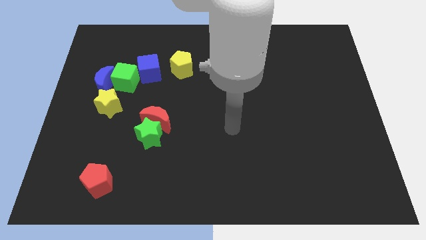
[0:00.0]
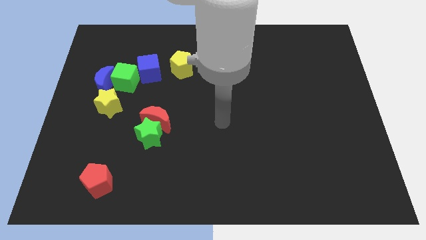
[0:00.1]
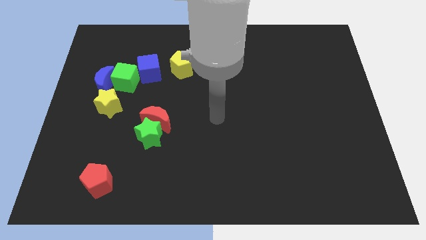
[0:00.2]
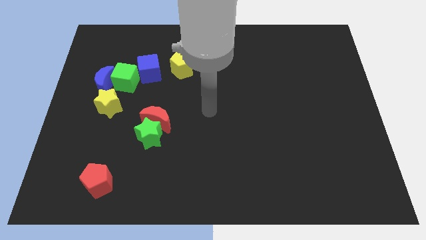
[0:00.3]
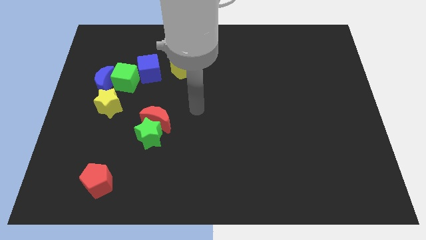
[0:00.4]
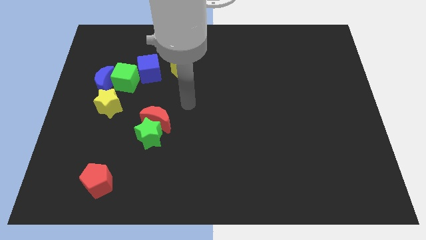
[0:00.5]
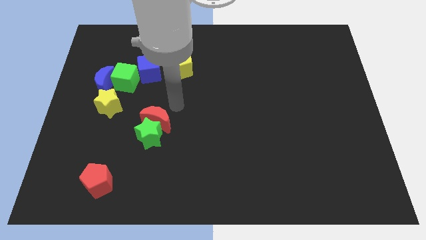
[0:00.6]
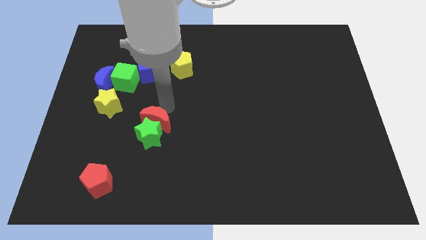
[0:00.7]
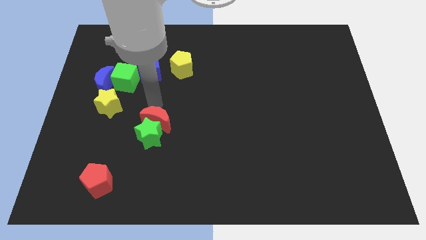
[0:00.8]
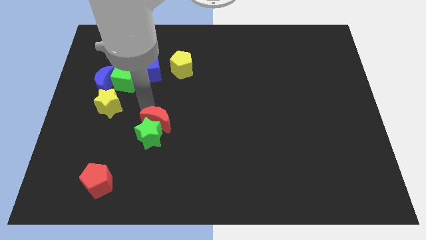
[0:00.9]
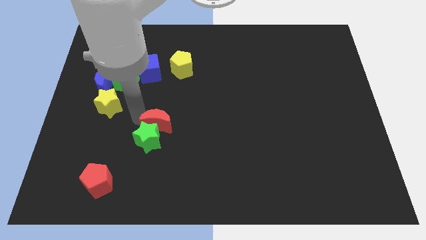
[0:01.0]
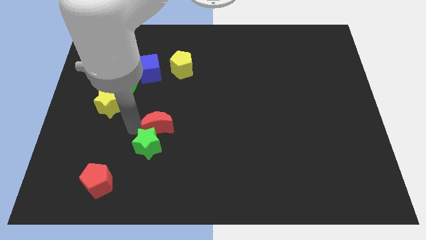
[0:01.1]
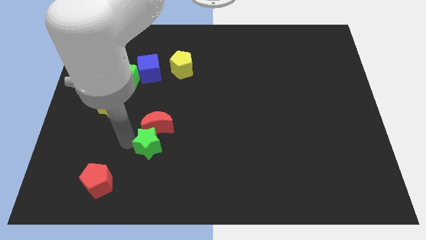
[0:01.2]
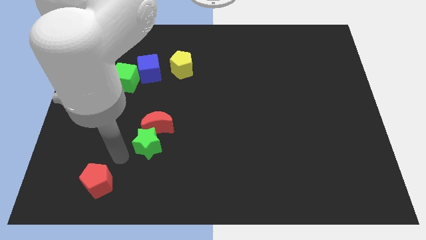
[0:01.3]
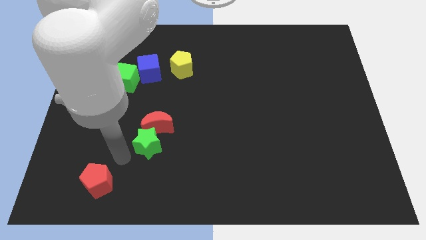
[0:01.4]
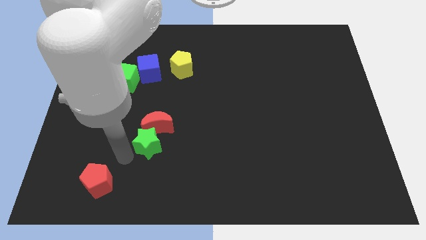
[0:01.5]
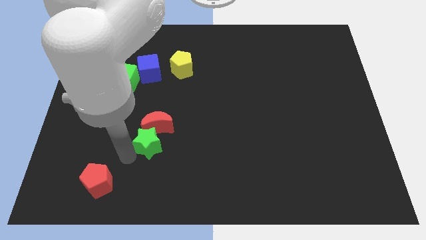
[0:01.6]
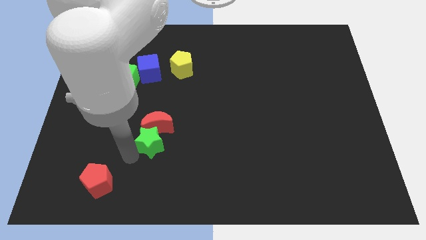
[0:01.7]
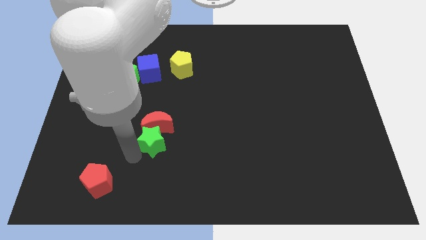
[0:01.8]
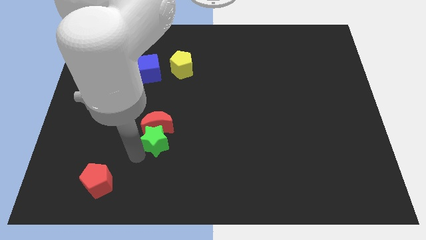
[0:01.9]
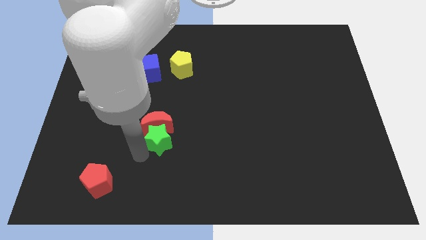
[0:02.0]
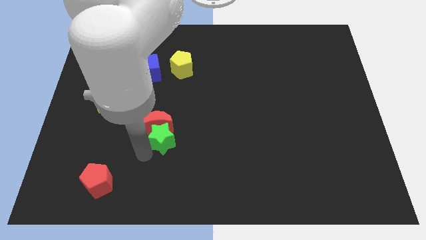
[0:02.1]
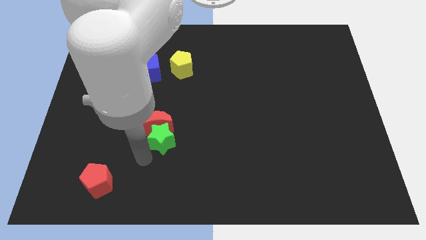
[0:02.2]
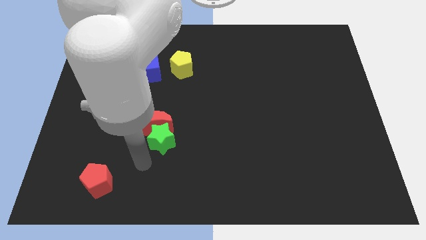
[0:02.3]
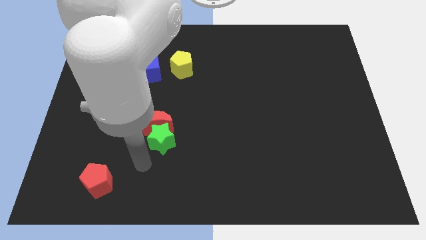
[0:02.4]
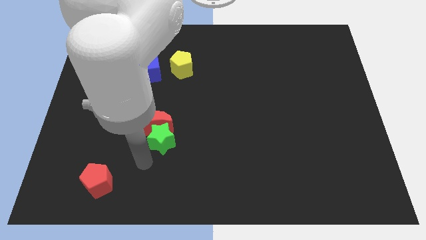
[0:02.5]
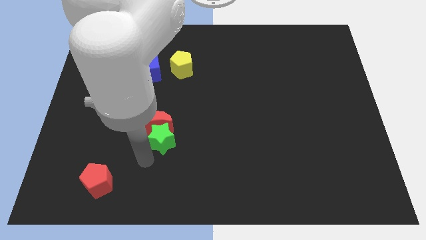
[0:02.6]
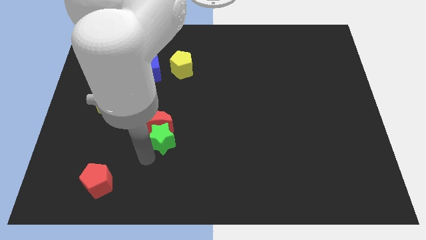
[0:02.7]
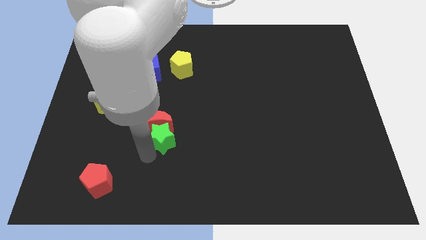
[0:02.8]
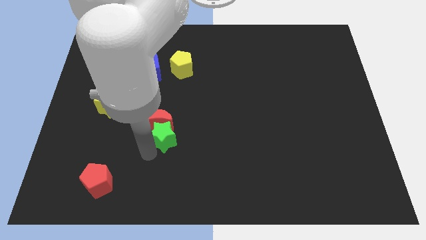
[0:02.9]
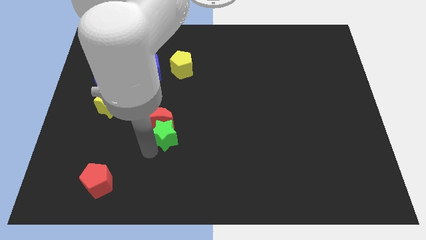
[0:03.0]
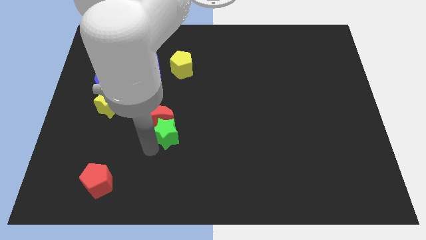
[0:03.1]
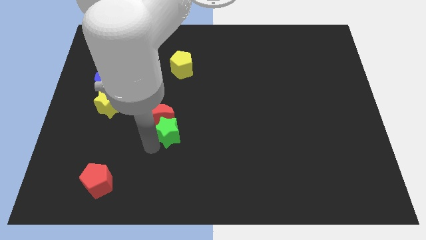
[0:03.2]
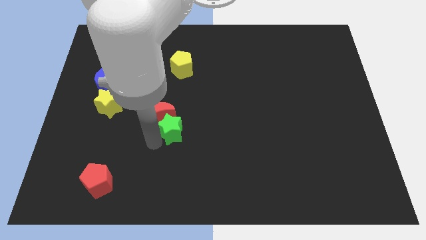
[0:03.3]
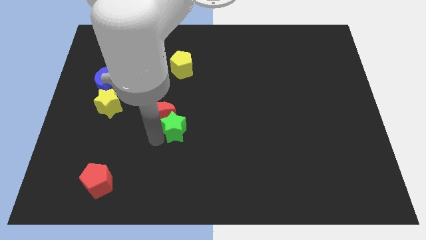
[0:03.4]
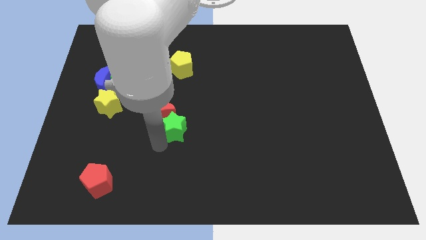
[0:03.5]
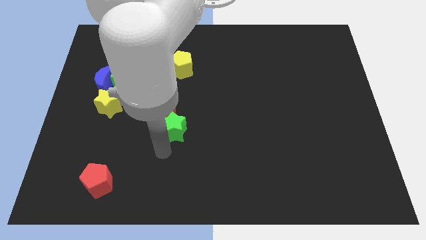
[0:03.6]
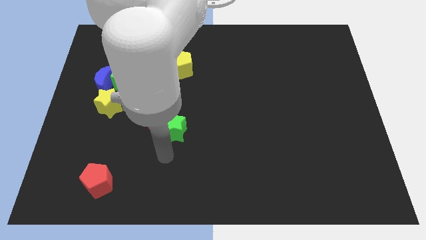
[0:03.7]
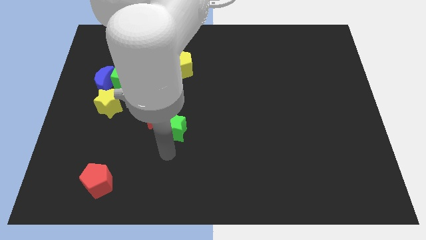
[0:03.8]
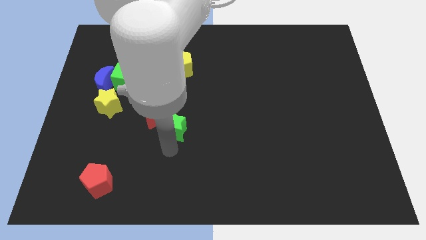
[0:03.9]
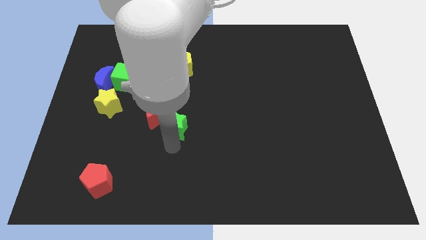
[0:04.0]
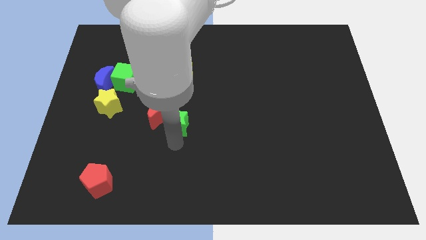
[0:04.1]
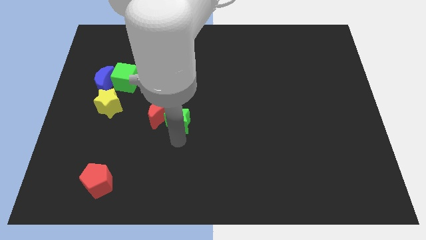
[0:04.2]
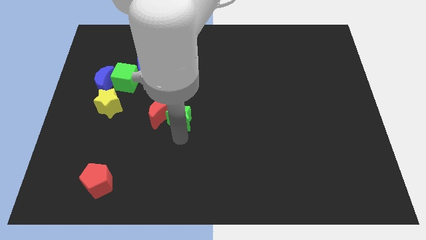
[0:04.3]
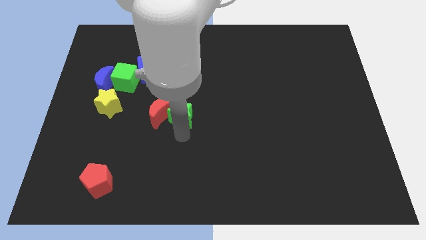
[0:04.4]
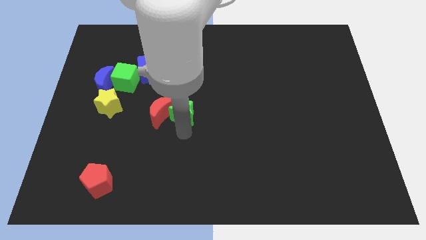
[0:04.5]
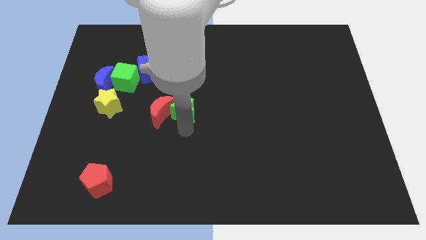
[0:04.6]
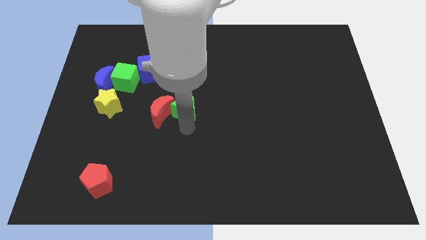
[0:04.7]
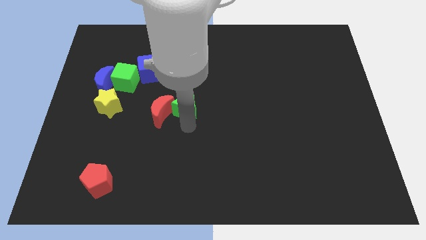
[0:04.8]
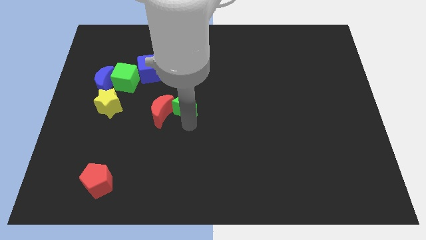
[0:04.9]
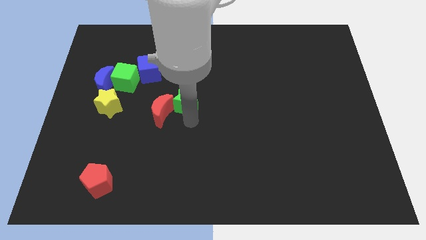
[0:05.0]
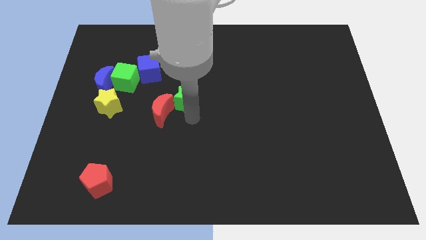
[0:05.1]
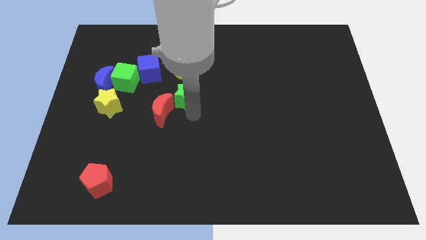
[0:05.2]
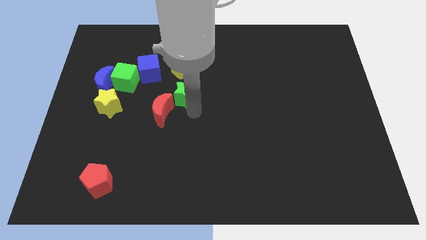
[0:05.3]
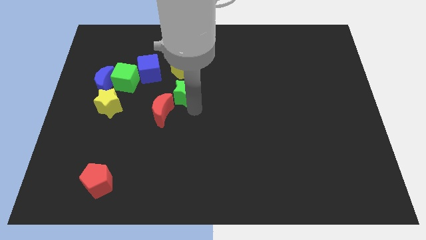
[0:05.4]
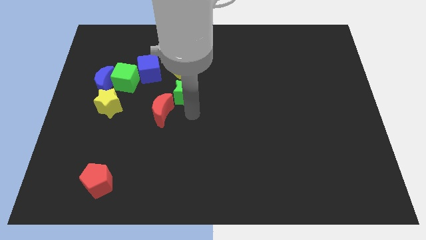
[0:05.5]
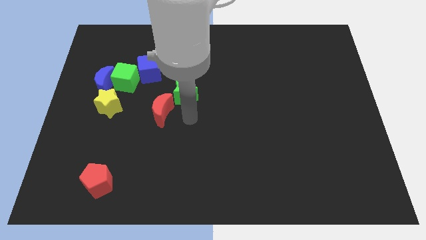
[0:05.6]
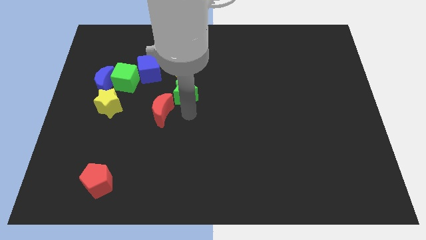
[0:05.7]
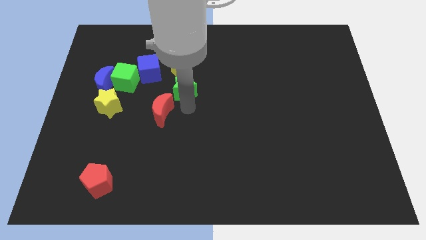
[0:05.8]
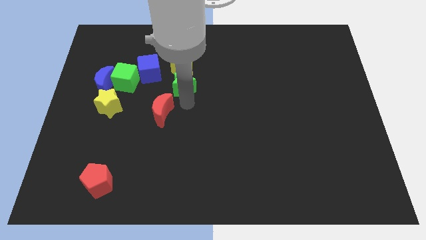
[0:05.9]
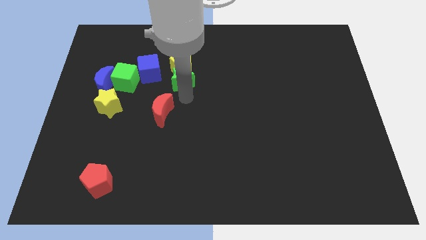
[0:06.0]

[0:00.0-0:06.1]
move the green star to the yellow pentagon

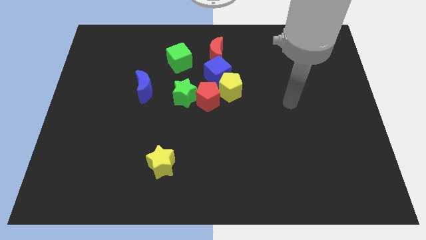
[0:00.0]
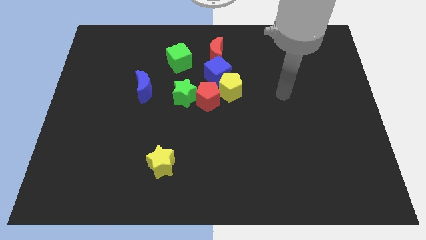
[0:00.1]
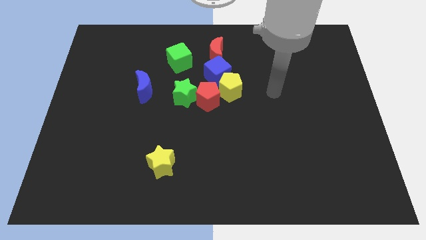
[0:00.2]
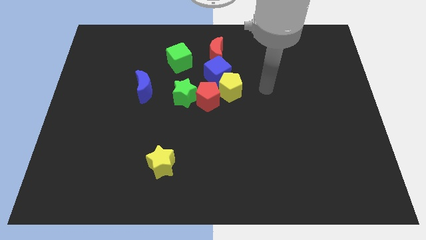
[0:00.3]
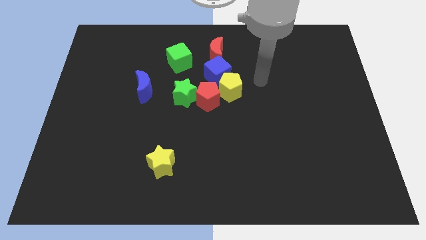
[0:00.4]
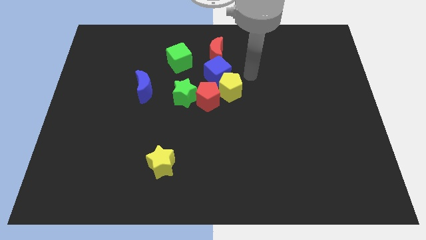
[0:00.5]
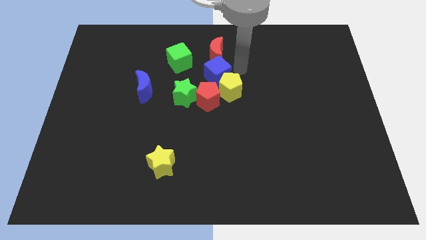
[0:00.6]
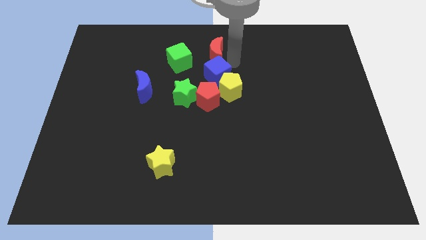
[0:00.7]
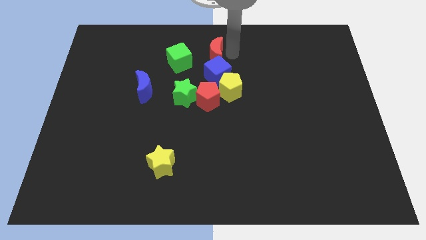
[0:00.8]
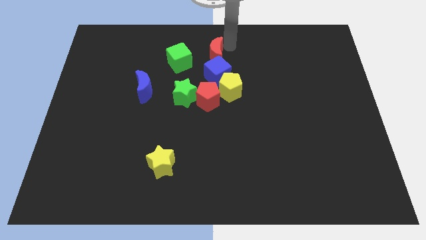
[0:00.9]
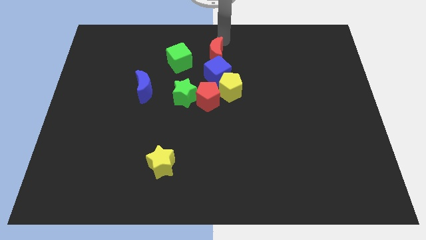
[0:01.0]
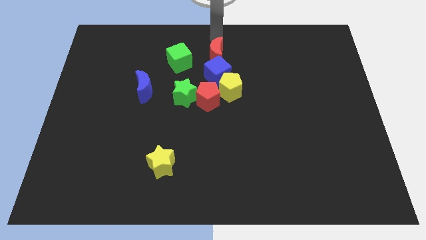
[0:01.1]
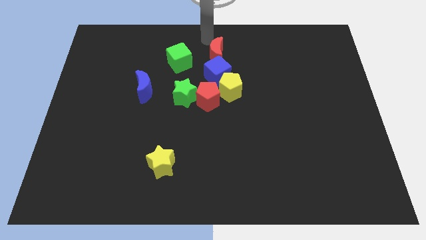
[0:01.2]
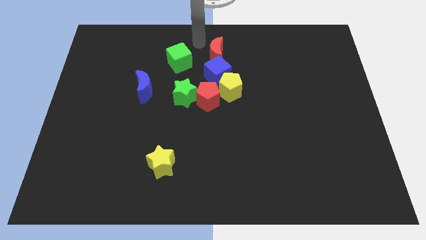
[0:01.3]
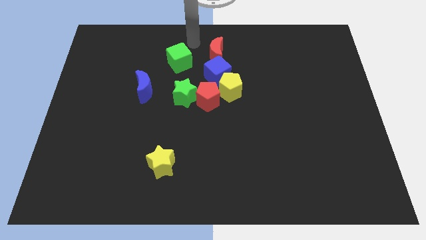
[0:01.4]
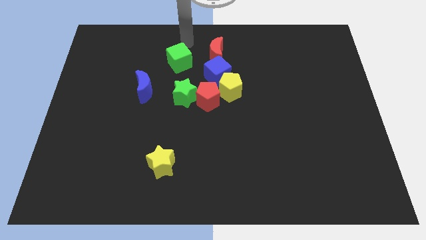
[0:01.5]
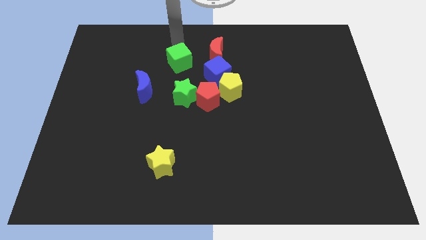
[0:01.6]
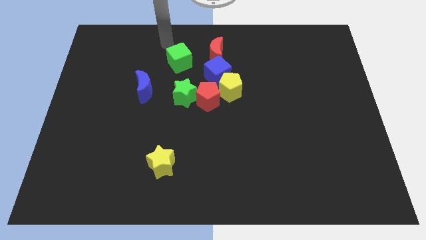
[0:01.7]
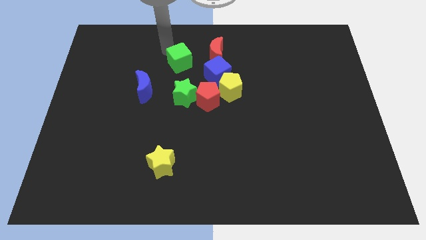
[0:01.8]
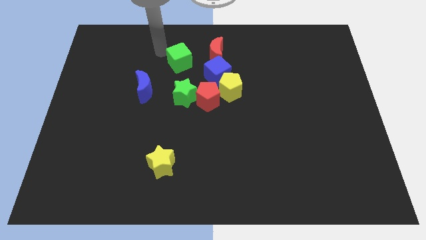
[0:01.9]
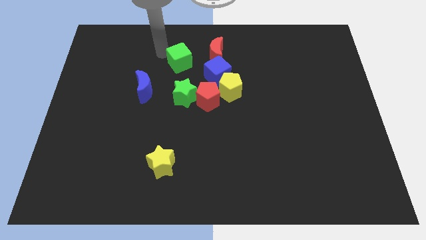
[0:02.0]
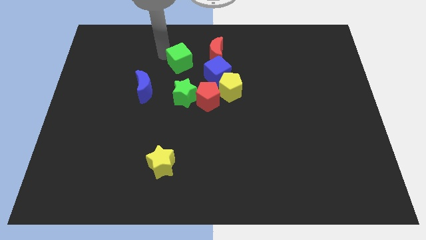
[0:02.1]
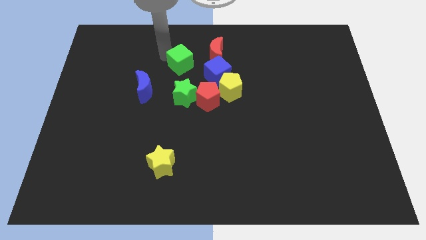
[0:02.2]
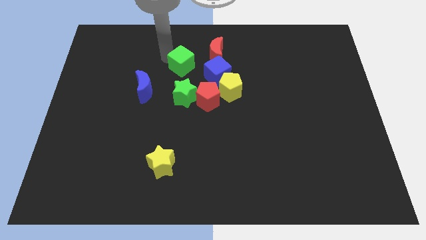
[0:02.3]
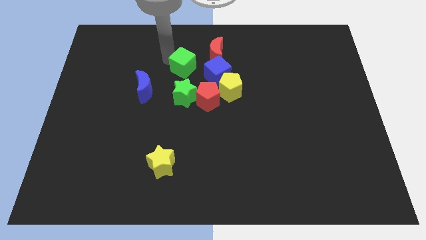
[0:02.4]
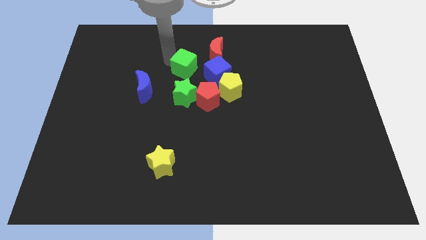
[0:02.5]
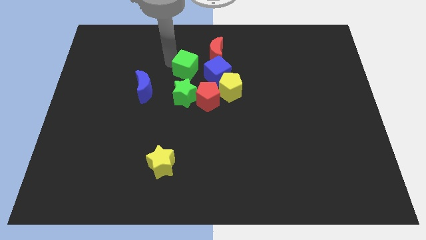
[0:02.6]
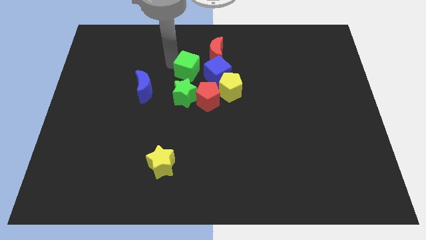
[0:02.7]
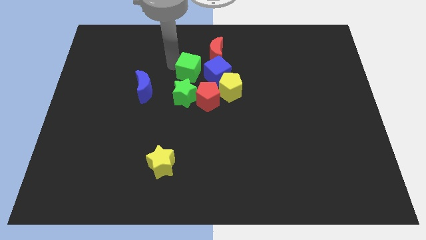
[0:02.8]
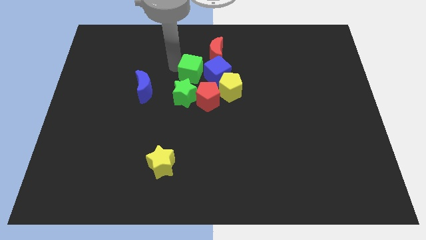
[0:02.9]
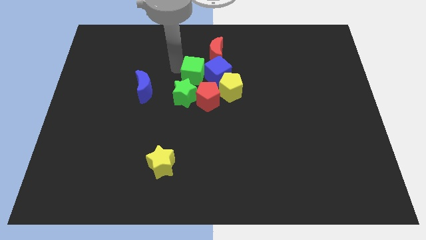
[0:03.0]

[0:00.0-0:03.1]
put the green cube to the blue cube
